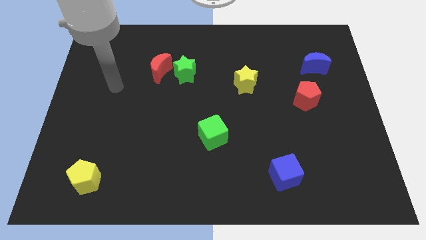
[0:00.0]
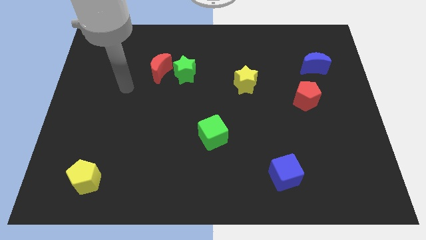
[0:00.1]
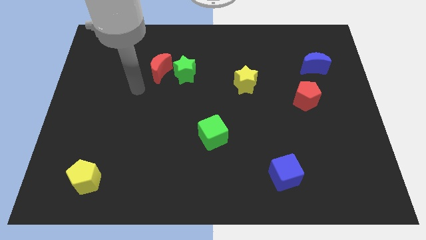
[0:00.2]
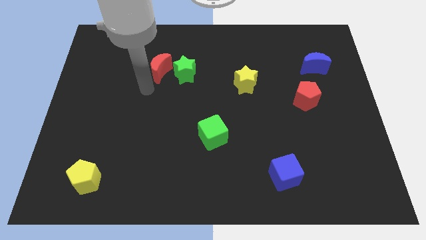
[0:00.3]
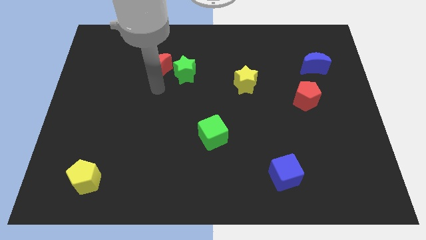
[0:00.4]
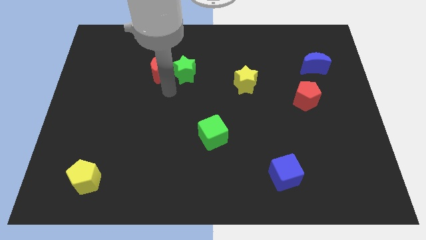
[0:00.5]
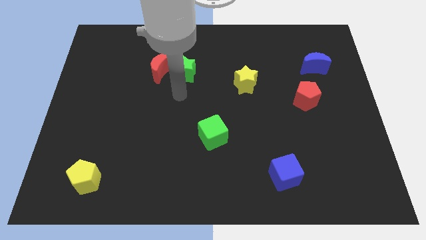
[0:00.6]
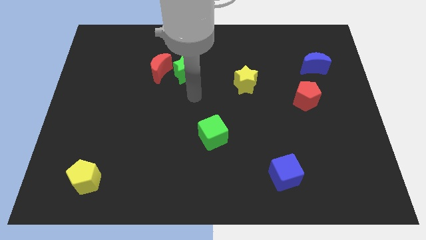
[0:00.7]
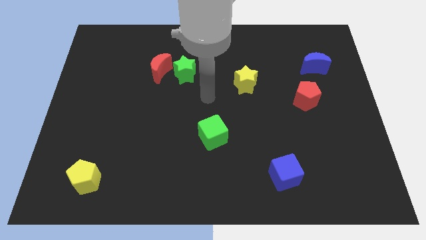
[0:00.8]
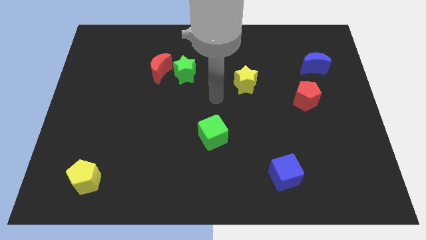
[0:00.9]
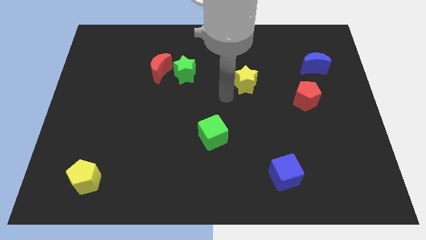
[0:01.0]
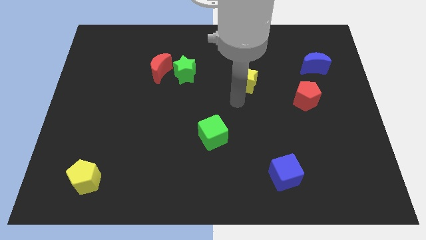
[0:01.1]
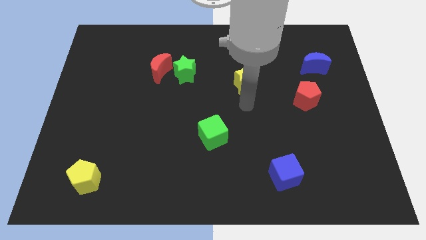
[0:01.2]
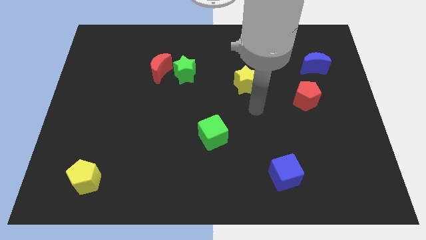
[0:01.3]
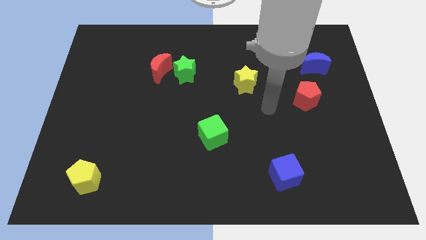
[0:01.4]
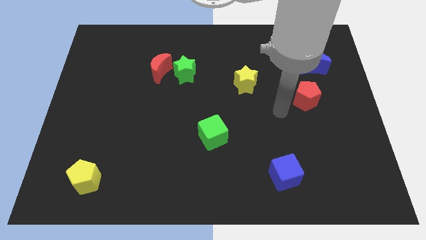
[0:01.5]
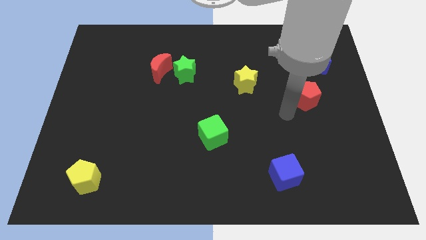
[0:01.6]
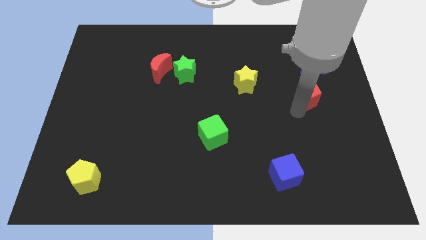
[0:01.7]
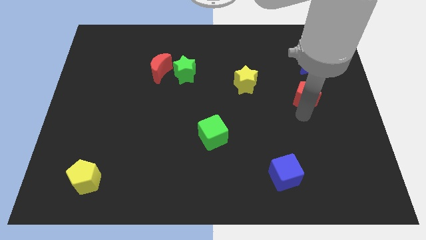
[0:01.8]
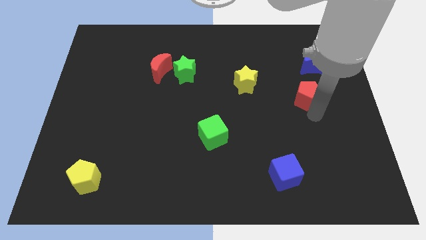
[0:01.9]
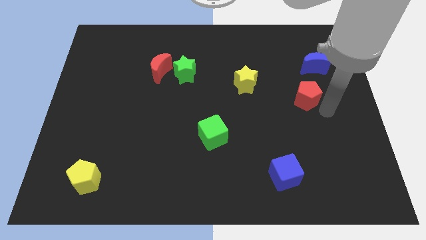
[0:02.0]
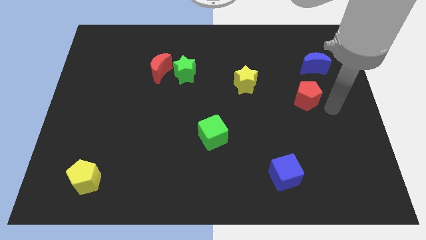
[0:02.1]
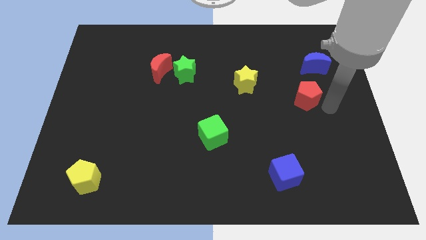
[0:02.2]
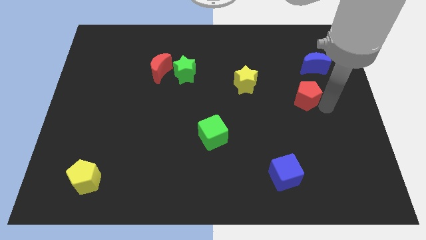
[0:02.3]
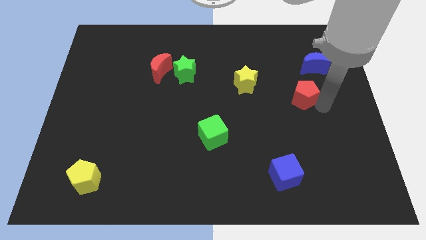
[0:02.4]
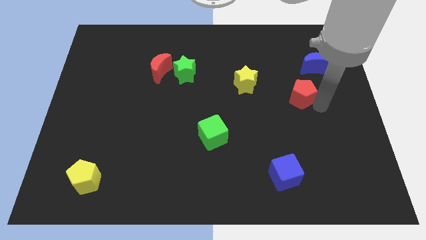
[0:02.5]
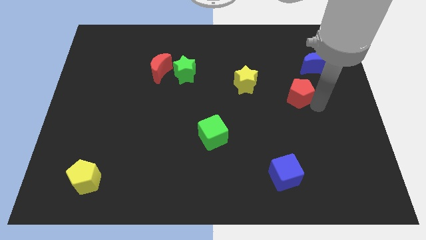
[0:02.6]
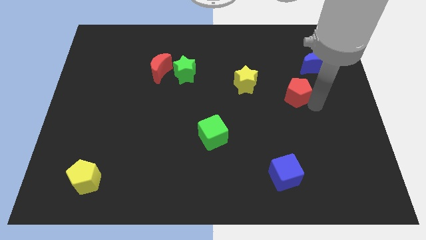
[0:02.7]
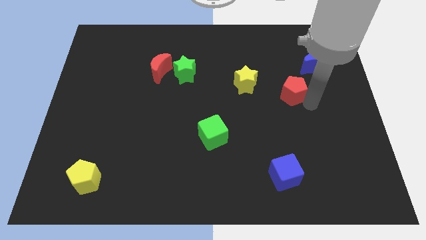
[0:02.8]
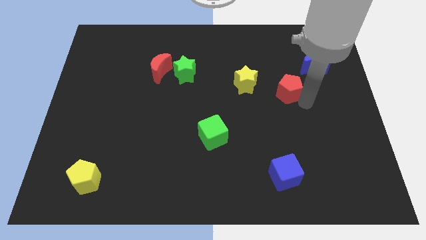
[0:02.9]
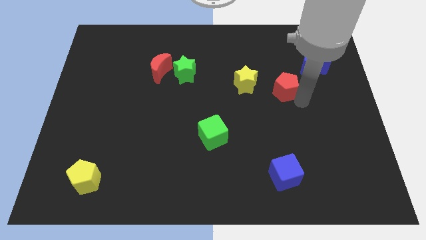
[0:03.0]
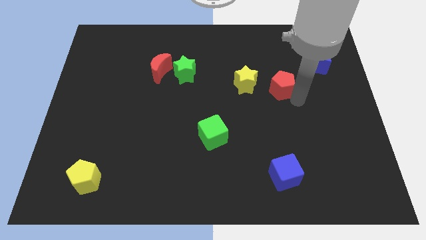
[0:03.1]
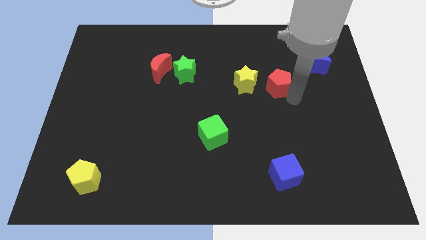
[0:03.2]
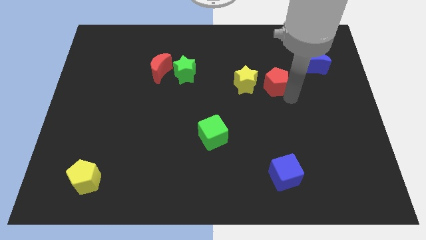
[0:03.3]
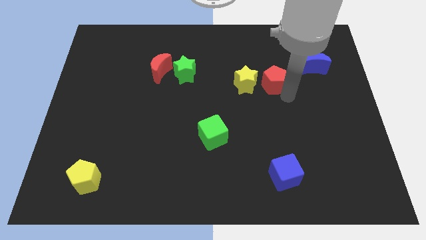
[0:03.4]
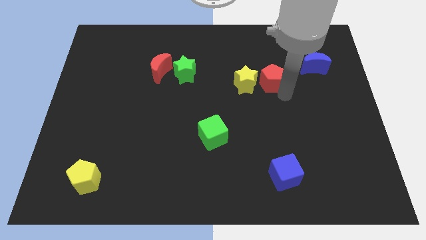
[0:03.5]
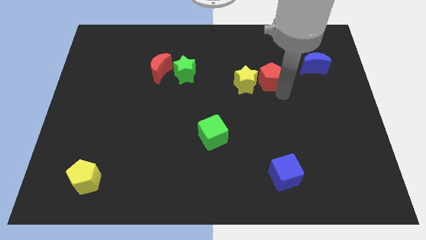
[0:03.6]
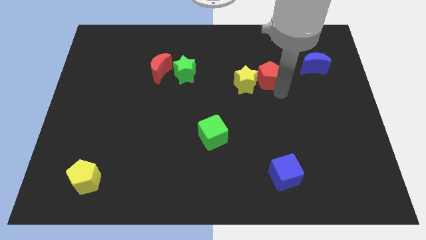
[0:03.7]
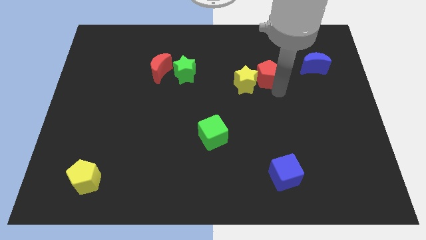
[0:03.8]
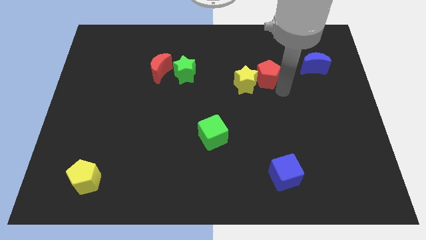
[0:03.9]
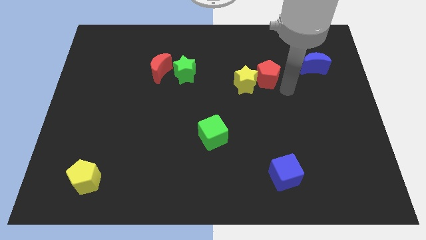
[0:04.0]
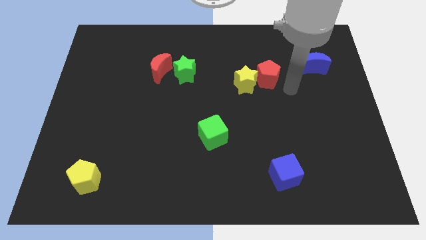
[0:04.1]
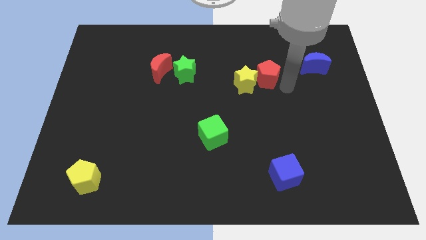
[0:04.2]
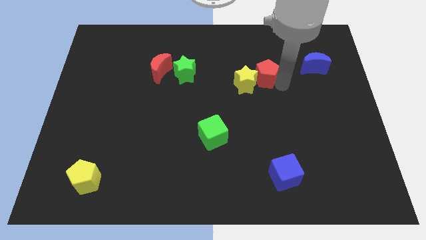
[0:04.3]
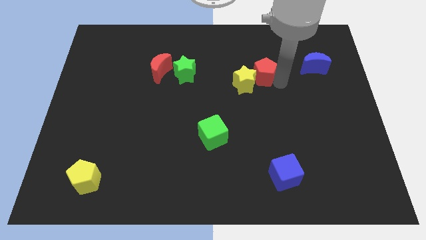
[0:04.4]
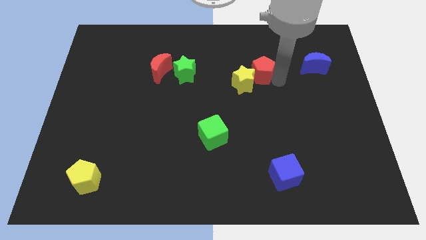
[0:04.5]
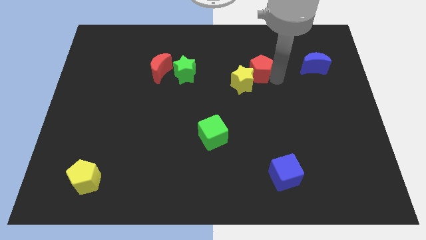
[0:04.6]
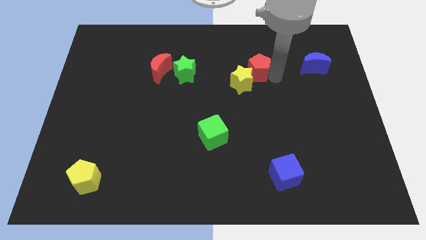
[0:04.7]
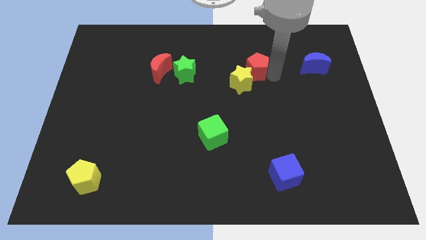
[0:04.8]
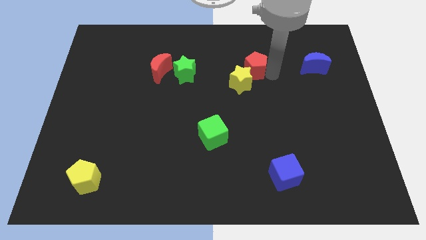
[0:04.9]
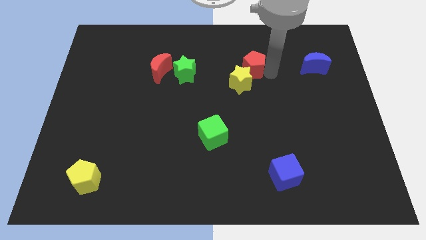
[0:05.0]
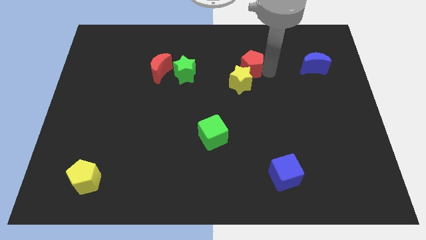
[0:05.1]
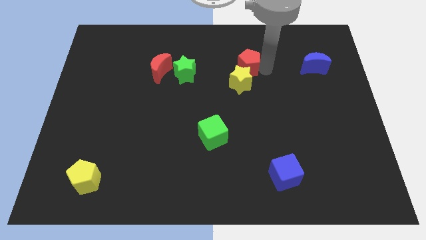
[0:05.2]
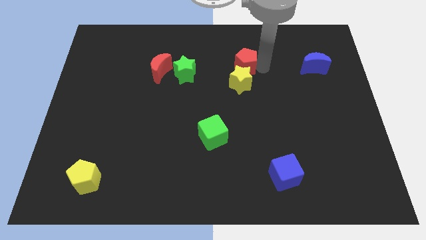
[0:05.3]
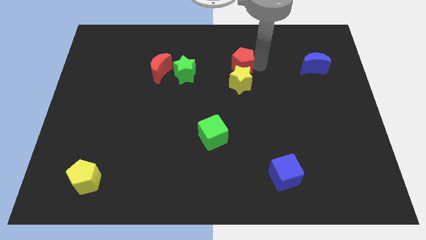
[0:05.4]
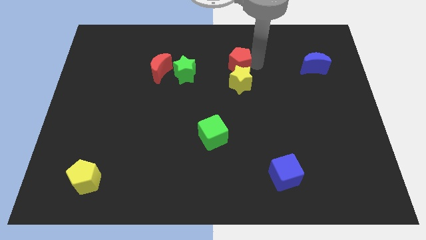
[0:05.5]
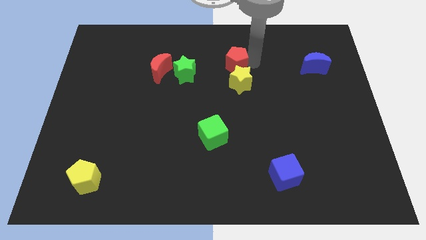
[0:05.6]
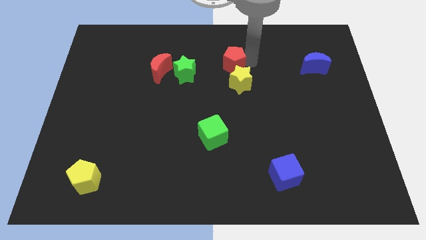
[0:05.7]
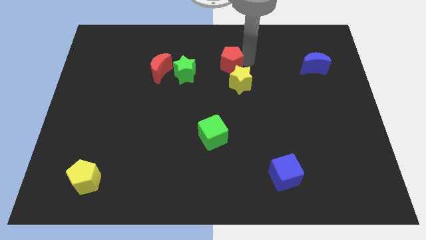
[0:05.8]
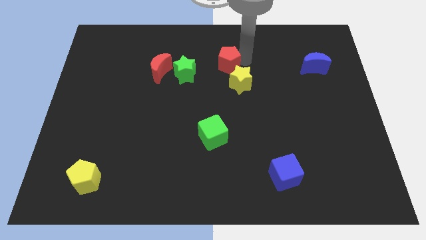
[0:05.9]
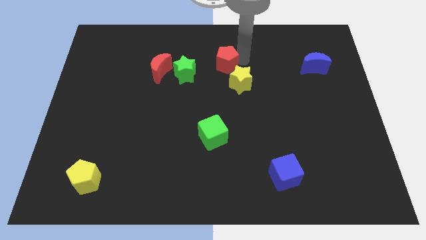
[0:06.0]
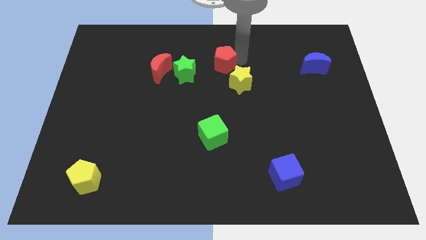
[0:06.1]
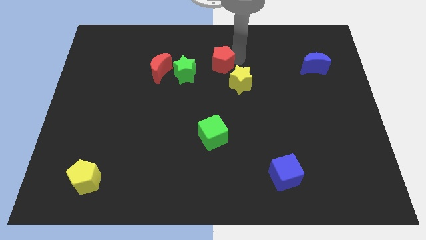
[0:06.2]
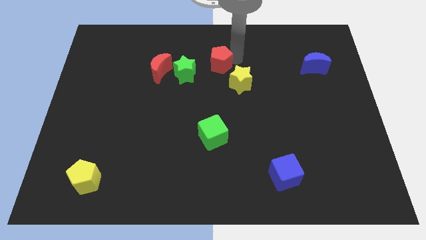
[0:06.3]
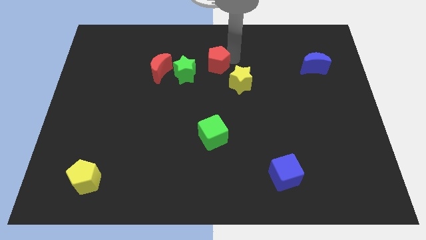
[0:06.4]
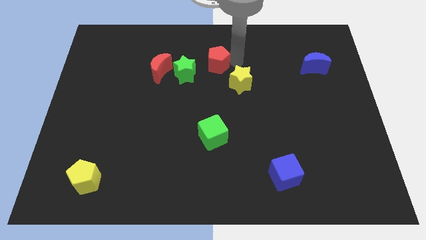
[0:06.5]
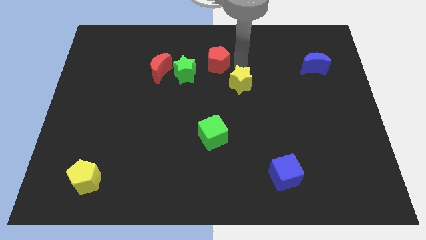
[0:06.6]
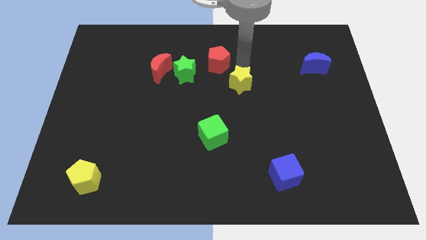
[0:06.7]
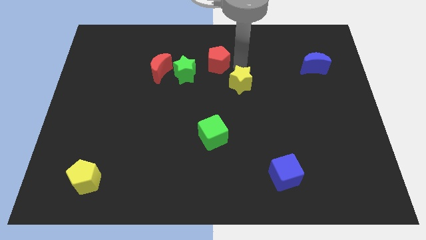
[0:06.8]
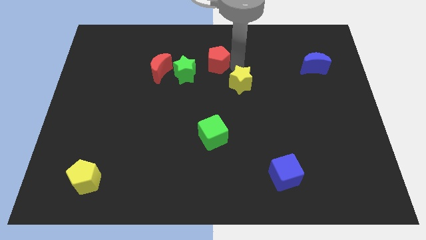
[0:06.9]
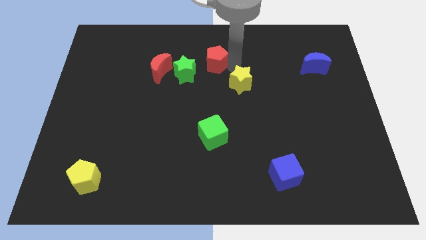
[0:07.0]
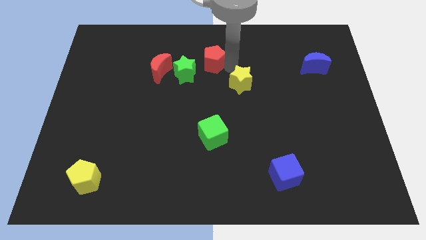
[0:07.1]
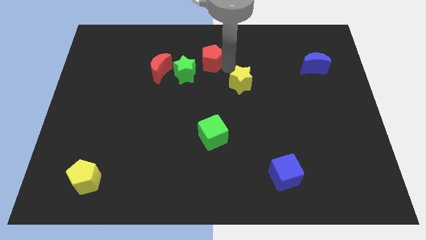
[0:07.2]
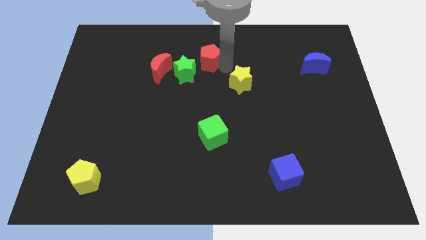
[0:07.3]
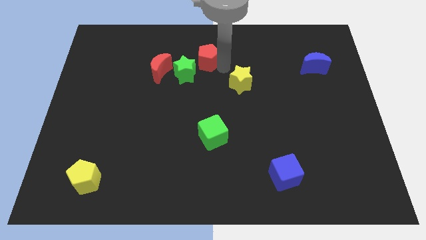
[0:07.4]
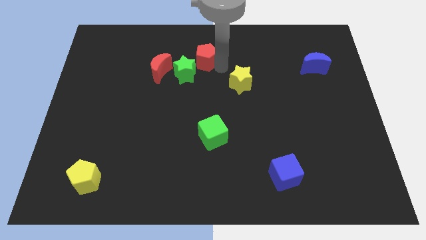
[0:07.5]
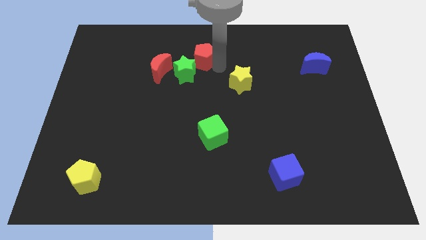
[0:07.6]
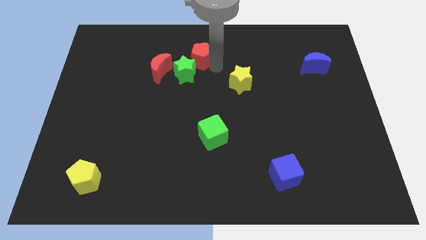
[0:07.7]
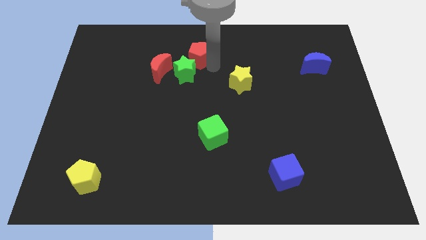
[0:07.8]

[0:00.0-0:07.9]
put the red pentagon to the top right side of the red moon

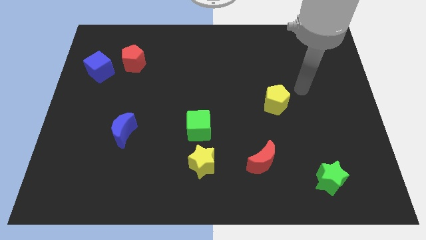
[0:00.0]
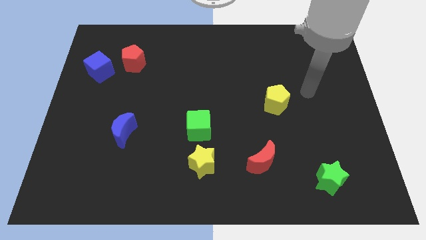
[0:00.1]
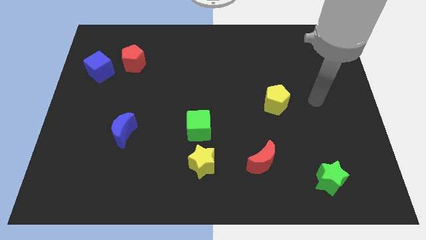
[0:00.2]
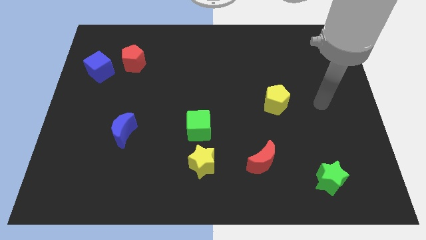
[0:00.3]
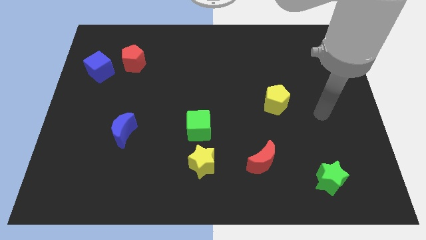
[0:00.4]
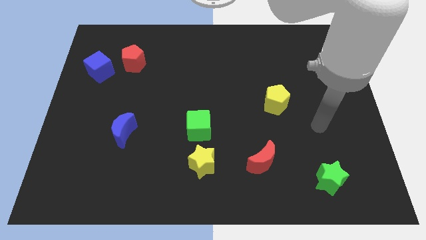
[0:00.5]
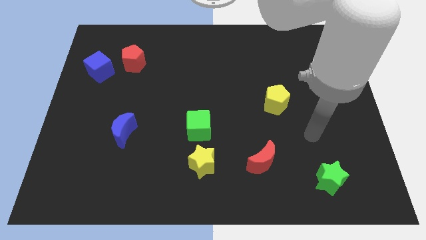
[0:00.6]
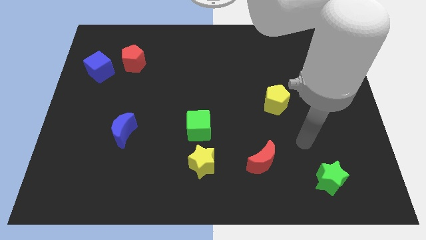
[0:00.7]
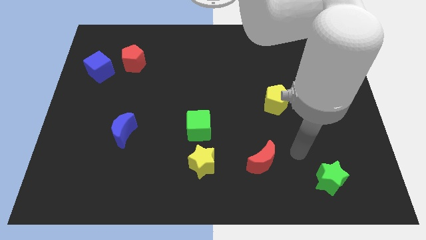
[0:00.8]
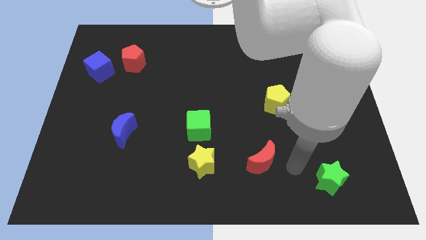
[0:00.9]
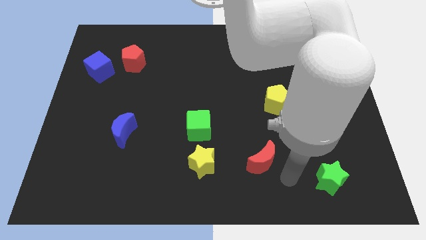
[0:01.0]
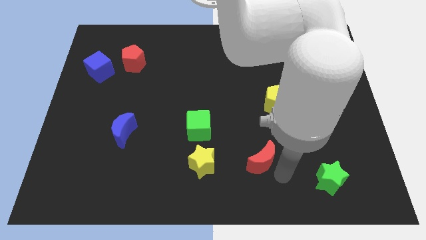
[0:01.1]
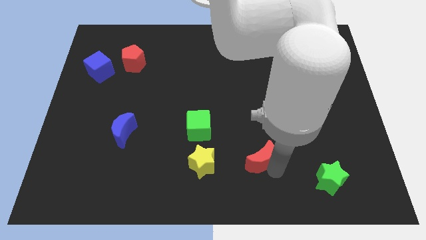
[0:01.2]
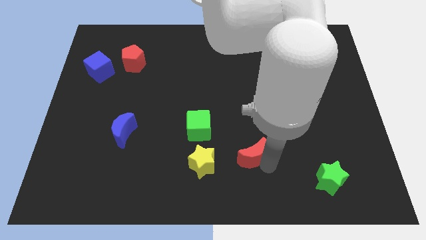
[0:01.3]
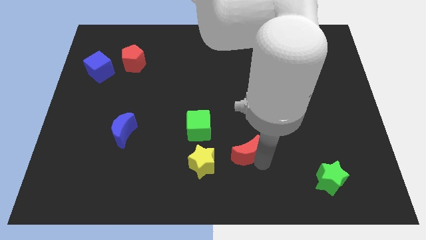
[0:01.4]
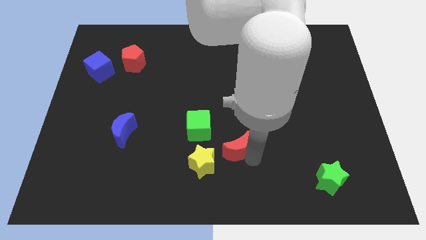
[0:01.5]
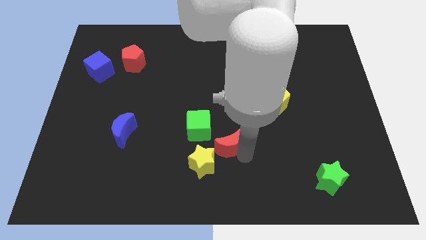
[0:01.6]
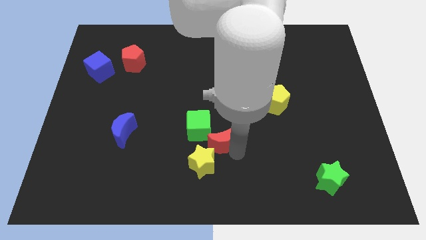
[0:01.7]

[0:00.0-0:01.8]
slide the red moon to the top side of the yellow star
